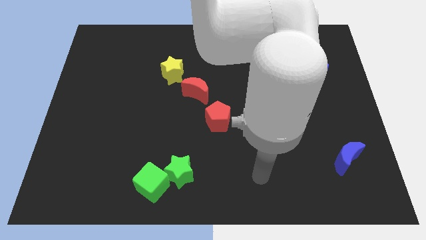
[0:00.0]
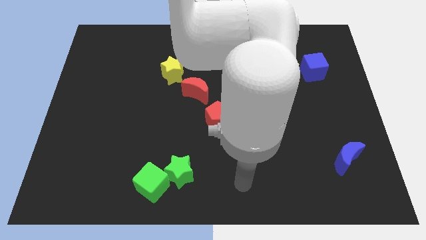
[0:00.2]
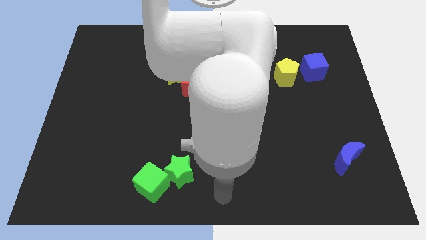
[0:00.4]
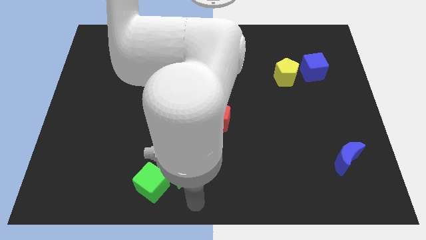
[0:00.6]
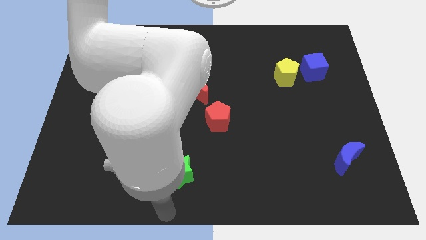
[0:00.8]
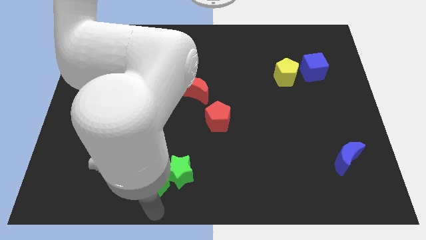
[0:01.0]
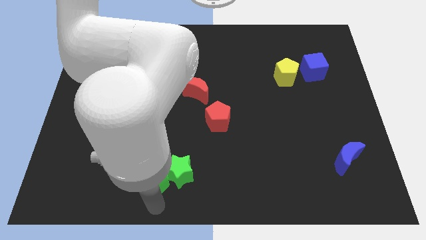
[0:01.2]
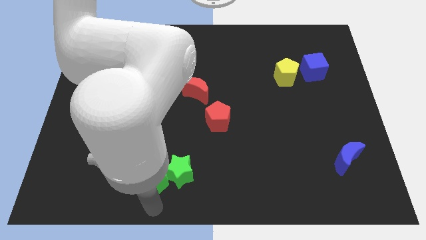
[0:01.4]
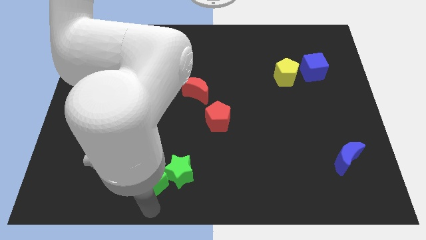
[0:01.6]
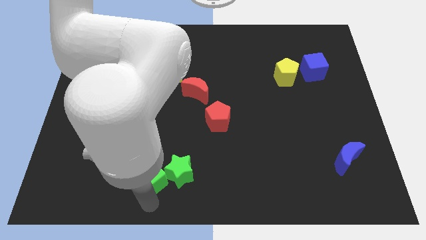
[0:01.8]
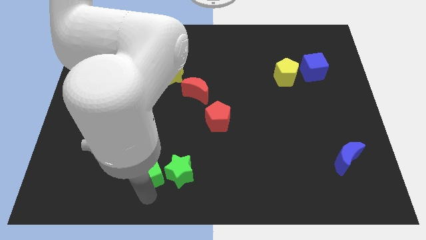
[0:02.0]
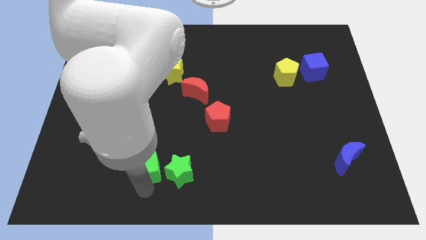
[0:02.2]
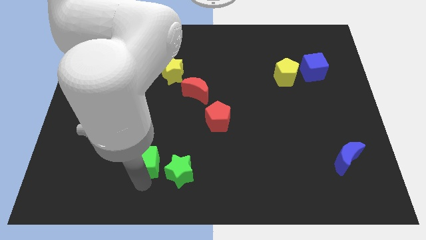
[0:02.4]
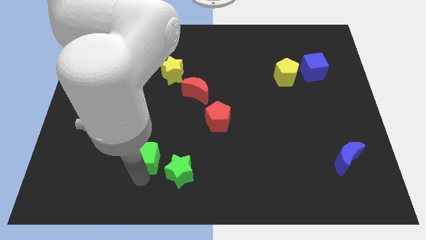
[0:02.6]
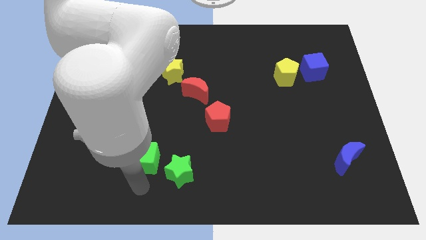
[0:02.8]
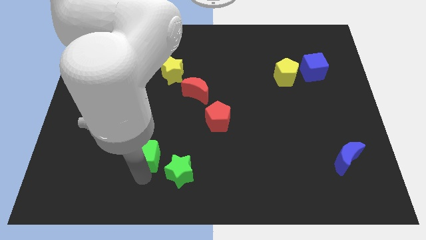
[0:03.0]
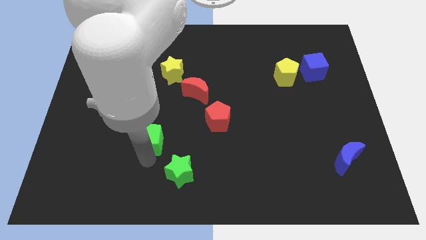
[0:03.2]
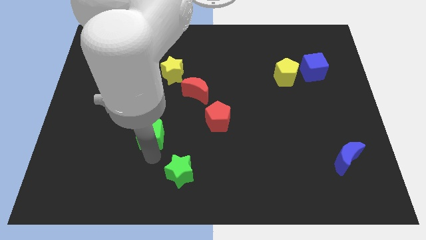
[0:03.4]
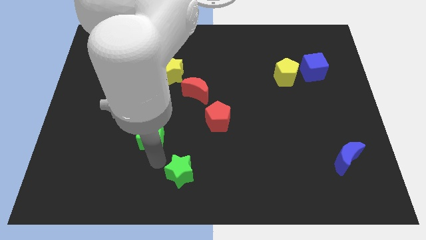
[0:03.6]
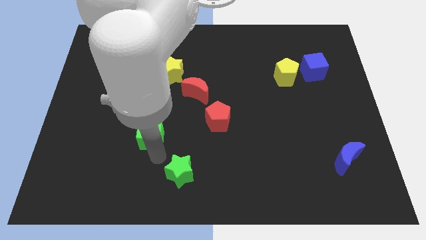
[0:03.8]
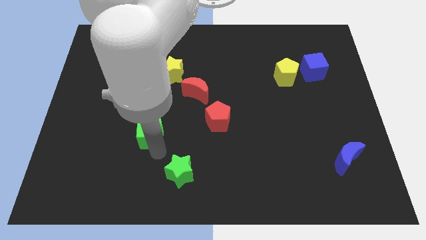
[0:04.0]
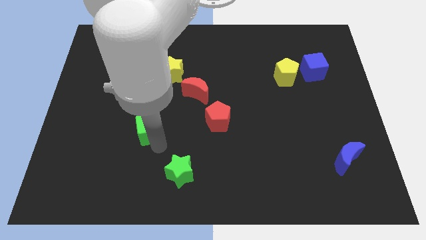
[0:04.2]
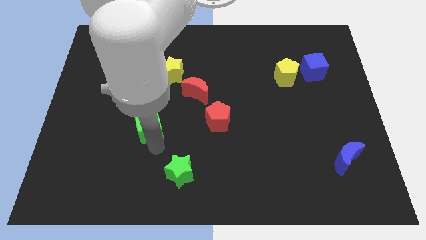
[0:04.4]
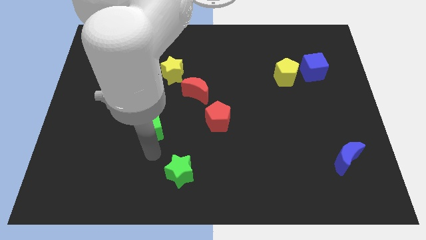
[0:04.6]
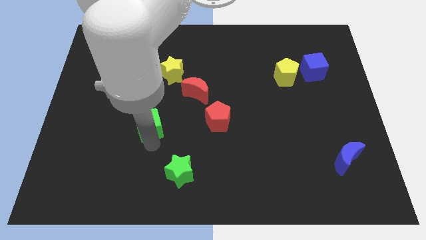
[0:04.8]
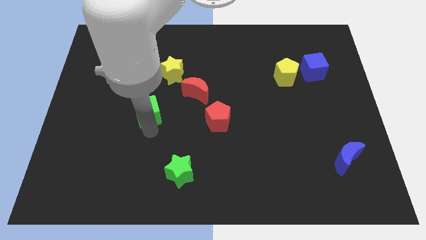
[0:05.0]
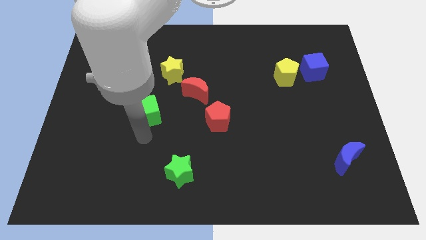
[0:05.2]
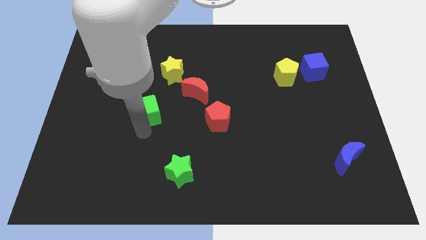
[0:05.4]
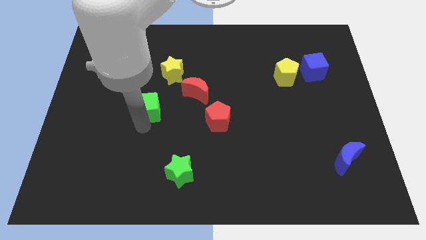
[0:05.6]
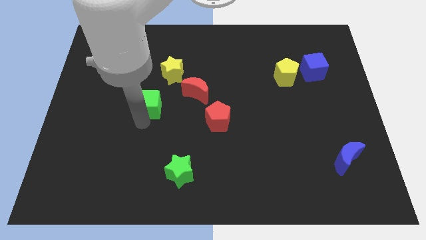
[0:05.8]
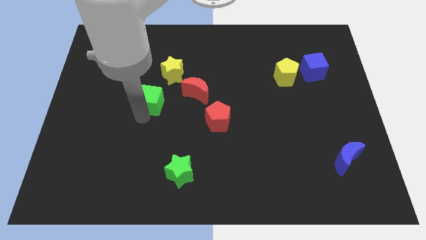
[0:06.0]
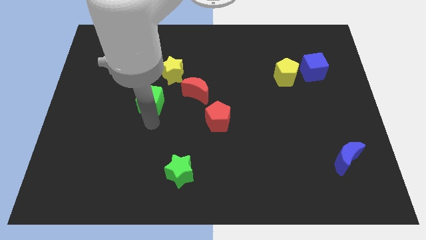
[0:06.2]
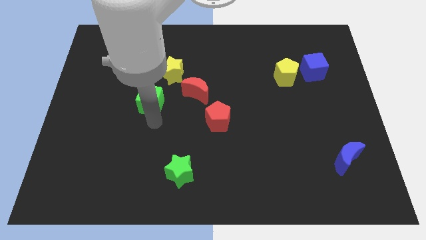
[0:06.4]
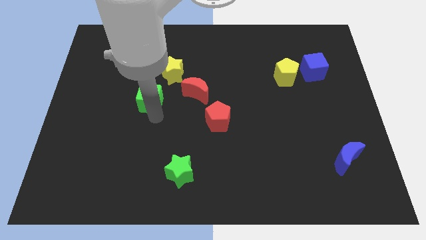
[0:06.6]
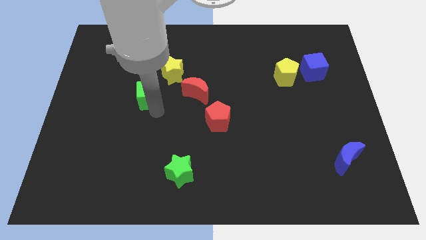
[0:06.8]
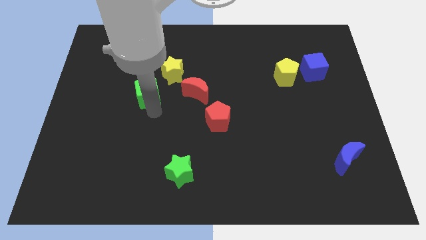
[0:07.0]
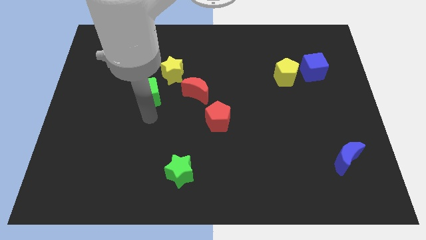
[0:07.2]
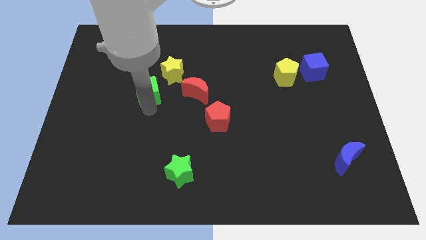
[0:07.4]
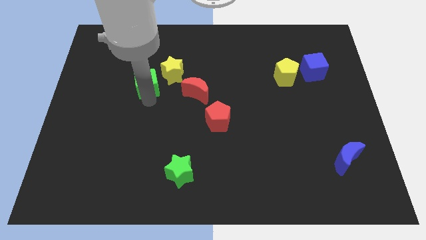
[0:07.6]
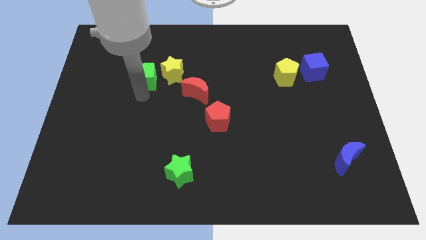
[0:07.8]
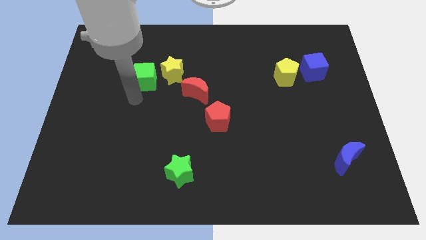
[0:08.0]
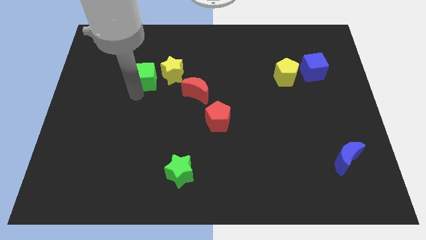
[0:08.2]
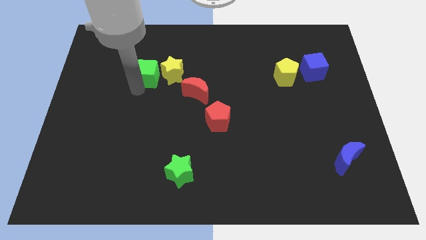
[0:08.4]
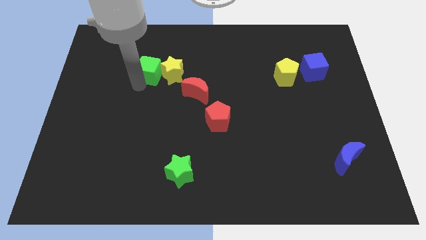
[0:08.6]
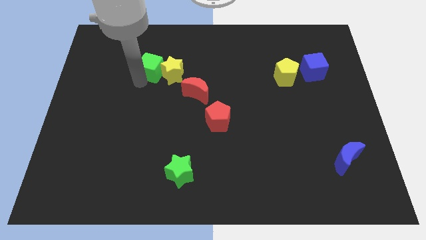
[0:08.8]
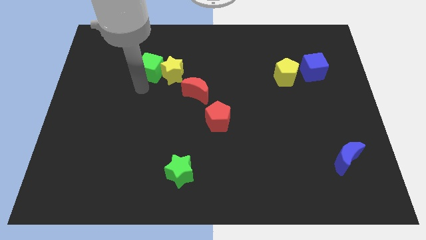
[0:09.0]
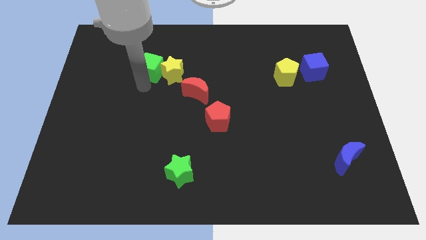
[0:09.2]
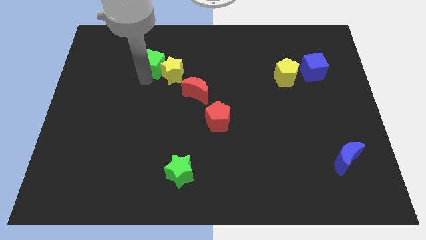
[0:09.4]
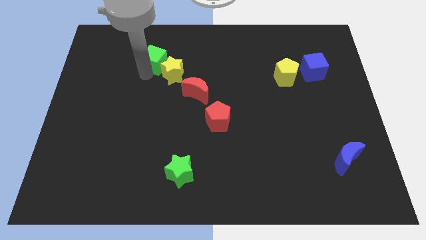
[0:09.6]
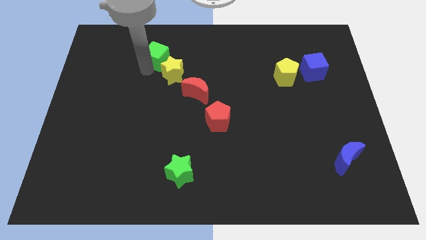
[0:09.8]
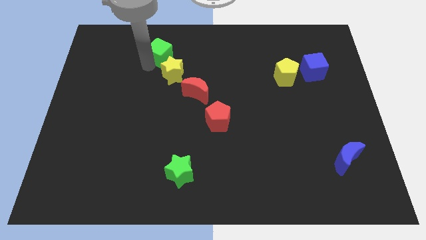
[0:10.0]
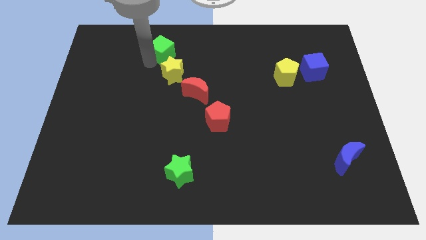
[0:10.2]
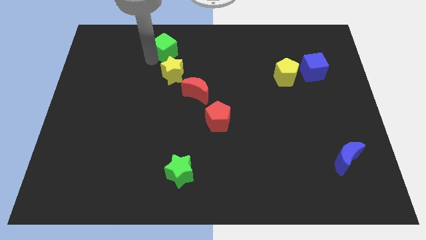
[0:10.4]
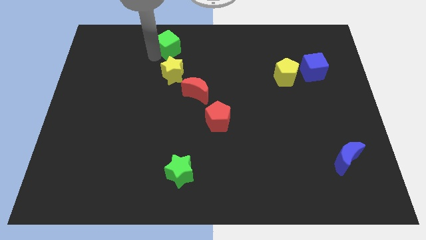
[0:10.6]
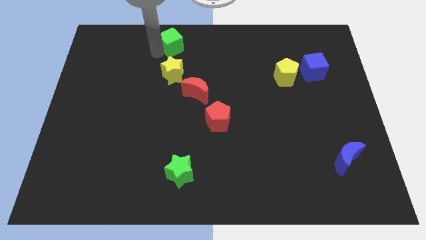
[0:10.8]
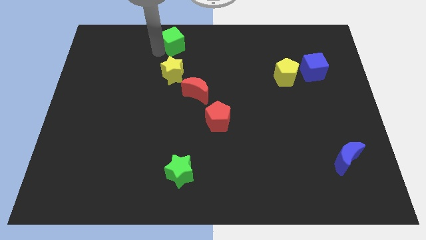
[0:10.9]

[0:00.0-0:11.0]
put the green cube to the top side

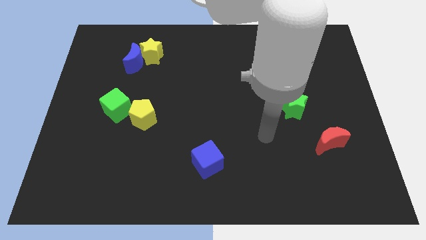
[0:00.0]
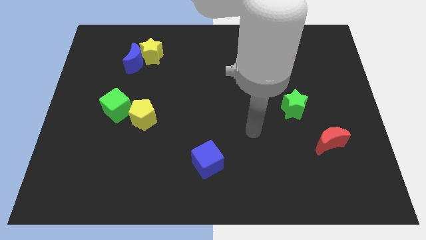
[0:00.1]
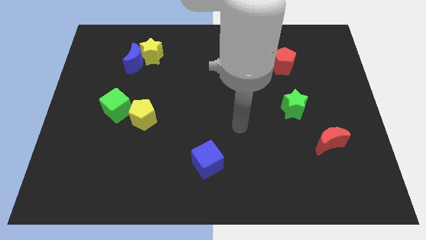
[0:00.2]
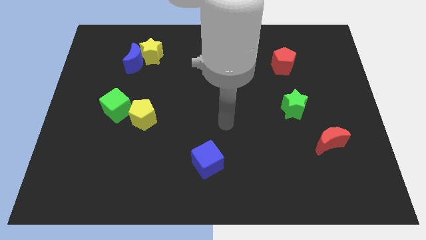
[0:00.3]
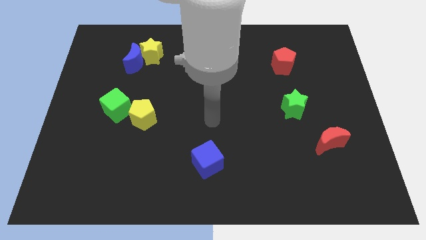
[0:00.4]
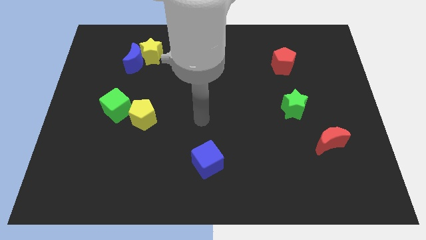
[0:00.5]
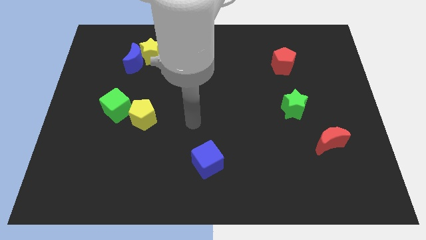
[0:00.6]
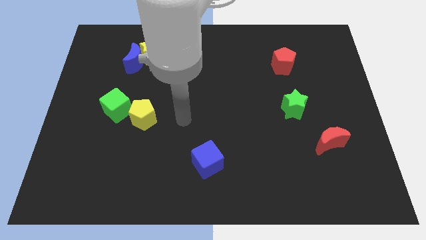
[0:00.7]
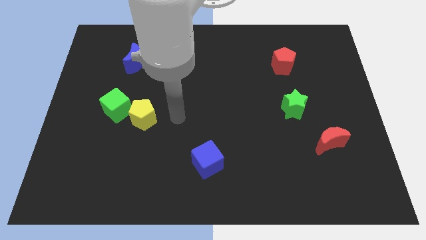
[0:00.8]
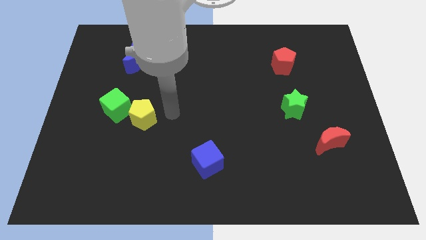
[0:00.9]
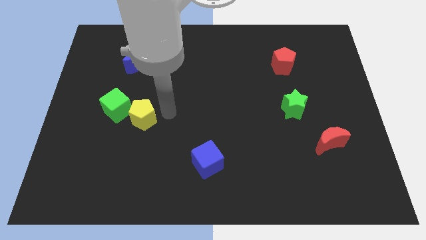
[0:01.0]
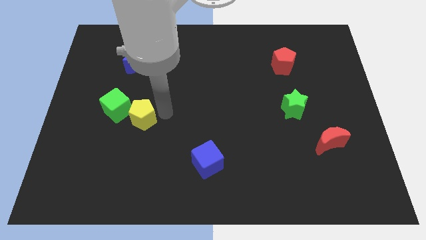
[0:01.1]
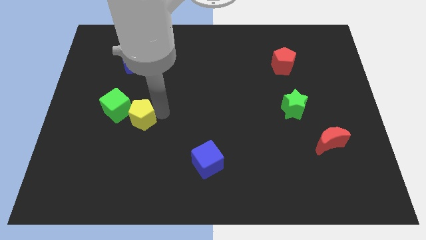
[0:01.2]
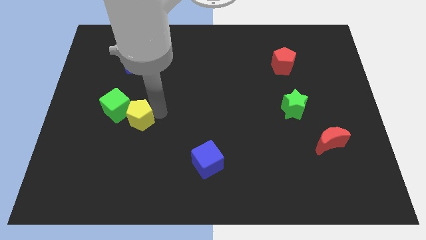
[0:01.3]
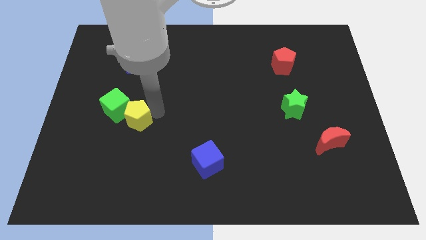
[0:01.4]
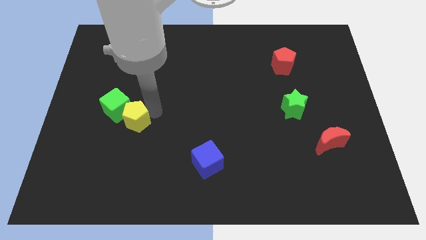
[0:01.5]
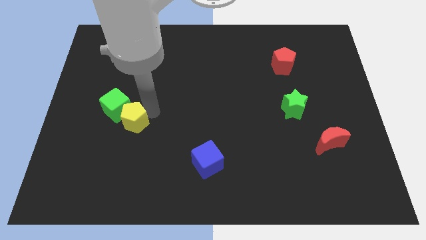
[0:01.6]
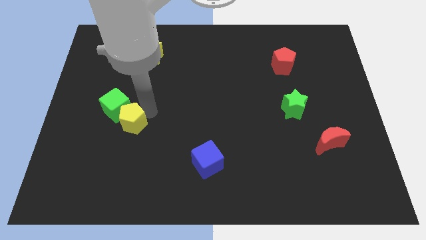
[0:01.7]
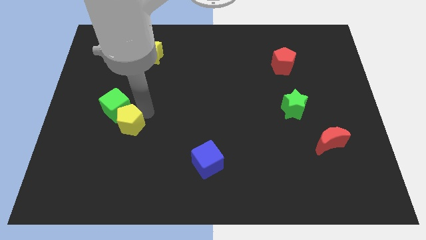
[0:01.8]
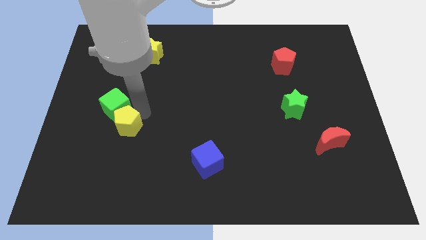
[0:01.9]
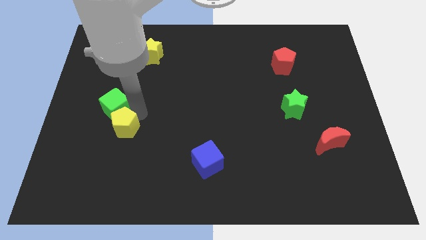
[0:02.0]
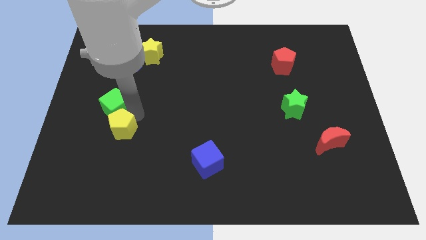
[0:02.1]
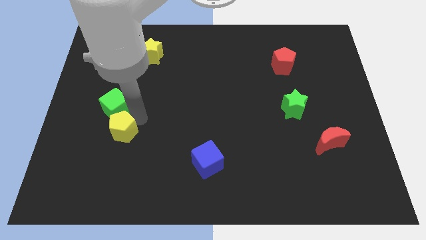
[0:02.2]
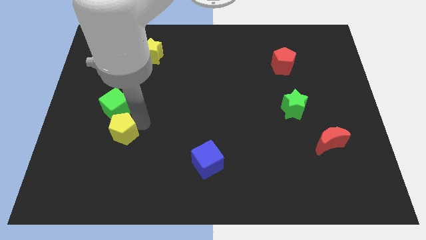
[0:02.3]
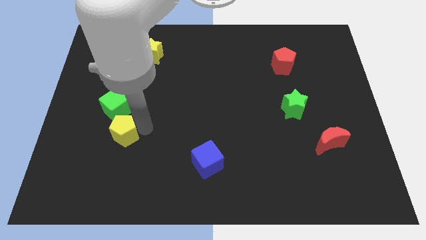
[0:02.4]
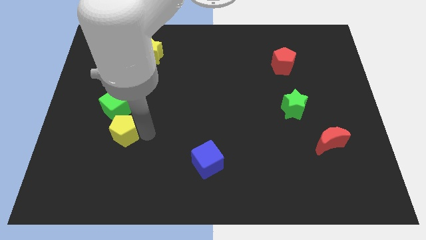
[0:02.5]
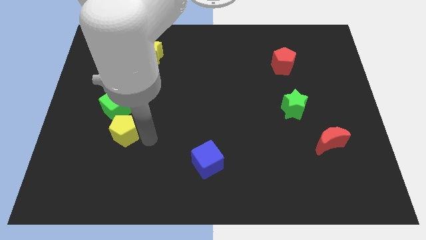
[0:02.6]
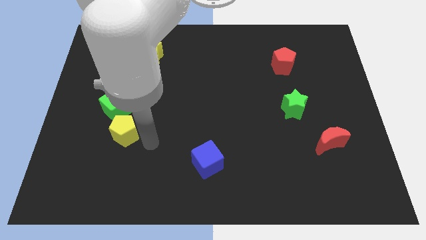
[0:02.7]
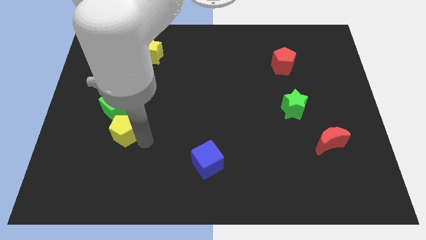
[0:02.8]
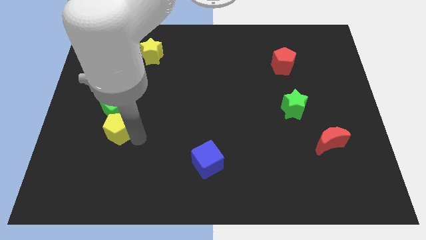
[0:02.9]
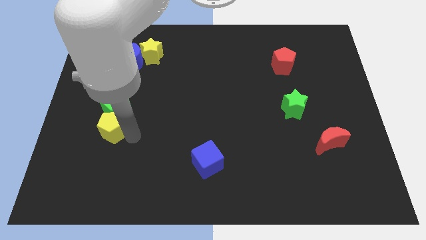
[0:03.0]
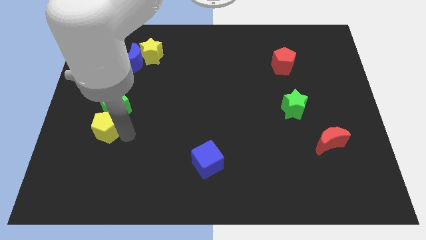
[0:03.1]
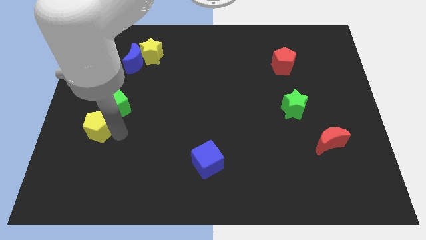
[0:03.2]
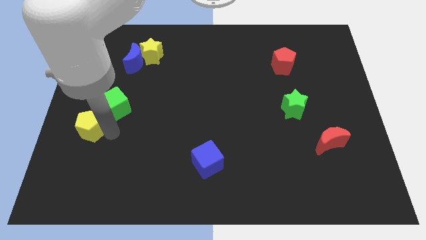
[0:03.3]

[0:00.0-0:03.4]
put the yellow pentagon to the left side
